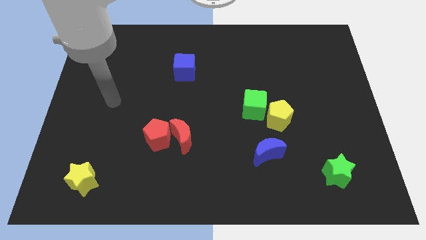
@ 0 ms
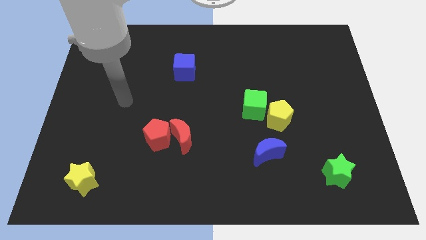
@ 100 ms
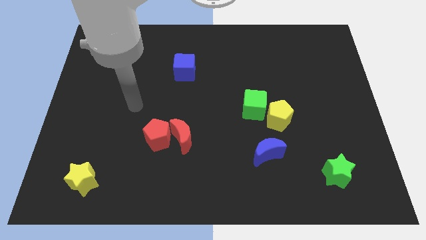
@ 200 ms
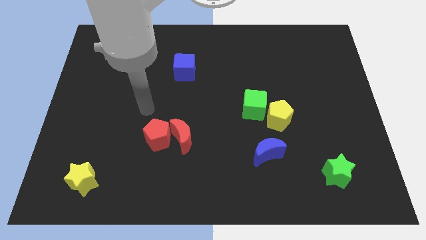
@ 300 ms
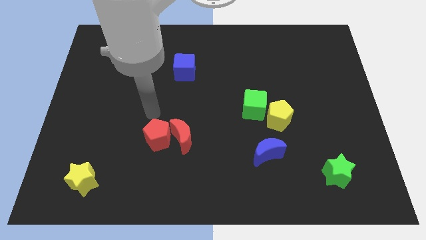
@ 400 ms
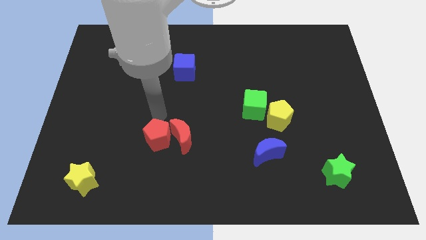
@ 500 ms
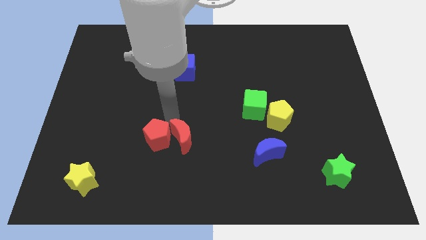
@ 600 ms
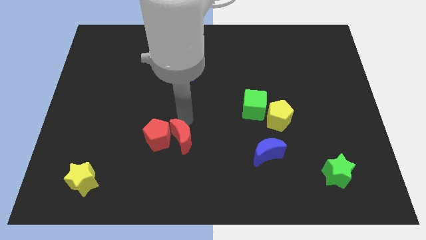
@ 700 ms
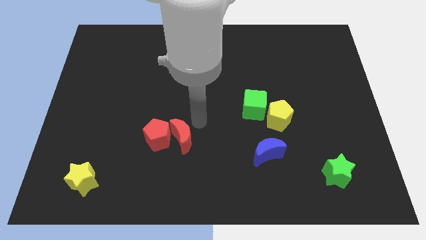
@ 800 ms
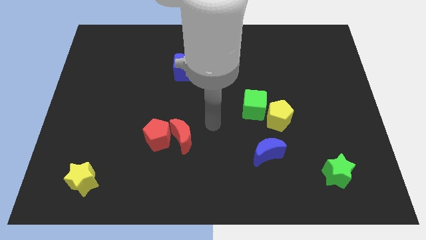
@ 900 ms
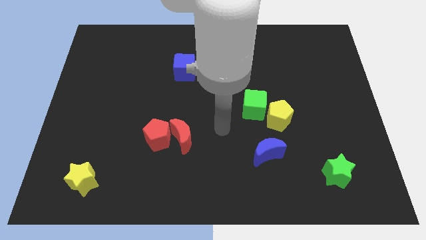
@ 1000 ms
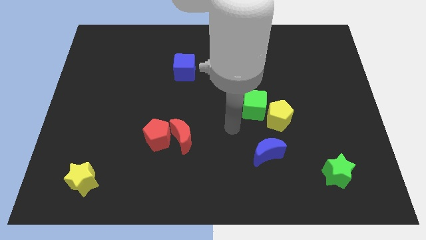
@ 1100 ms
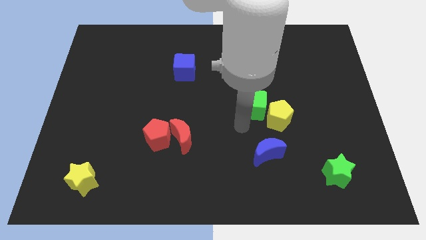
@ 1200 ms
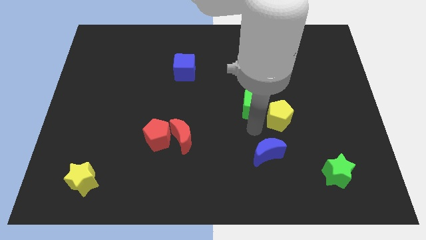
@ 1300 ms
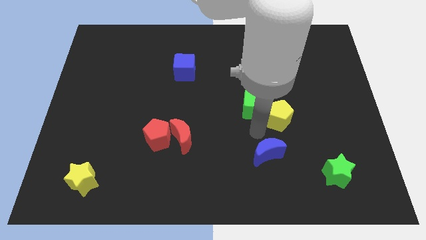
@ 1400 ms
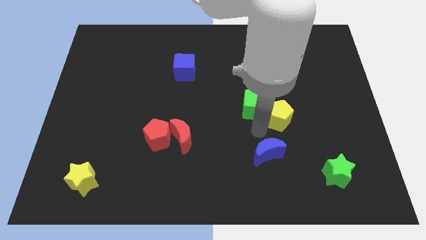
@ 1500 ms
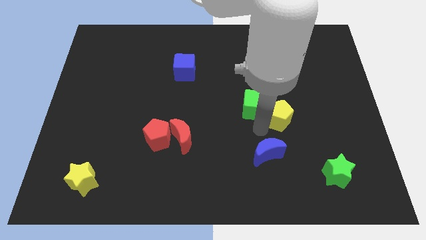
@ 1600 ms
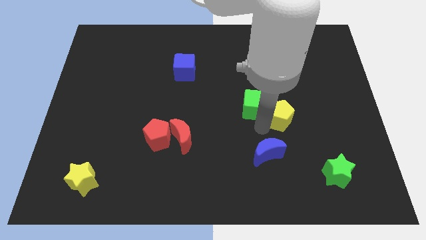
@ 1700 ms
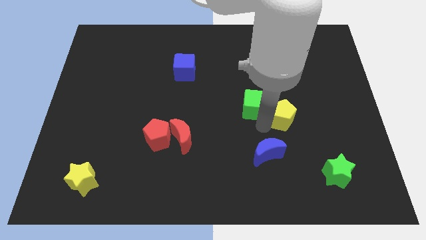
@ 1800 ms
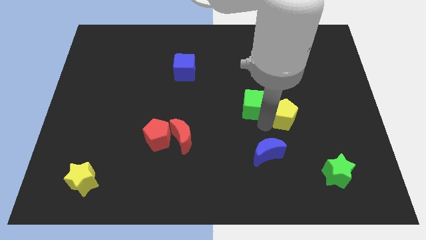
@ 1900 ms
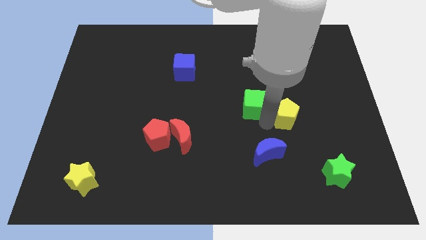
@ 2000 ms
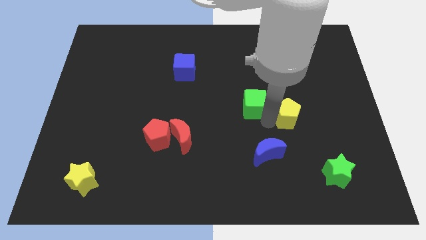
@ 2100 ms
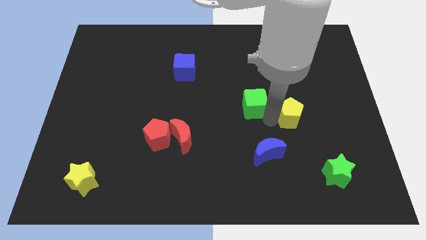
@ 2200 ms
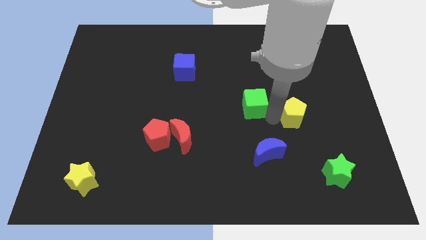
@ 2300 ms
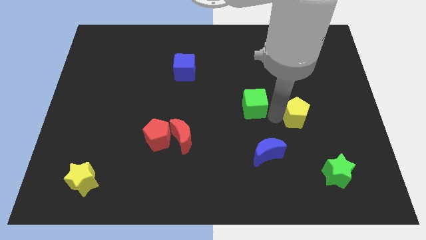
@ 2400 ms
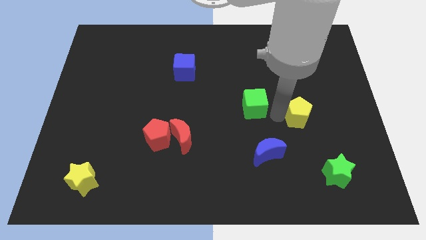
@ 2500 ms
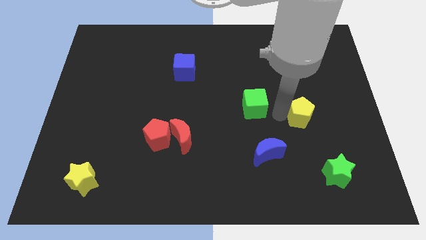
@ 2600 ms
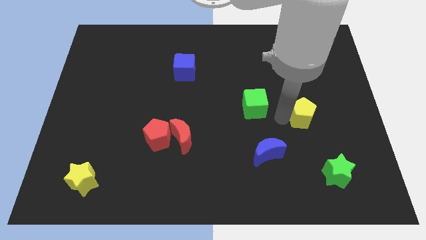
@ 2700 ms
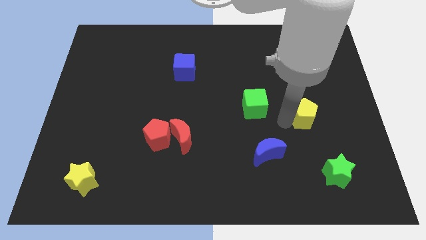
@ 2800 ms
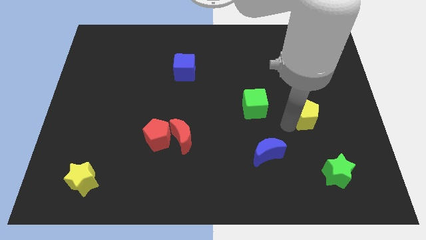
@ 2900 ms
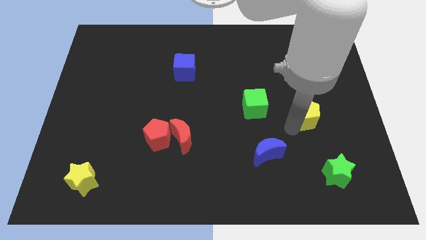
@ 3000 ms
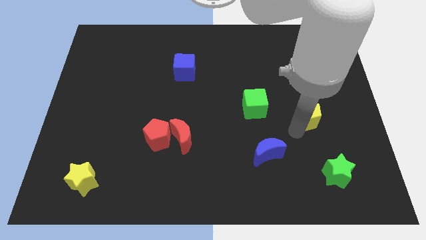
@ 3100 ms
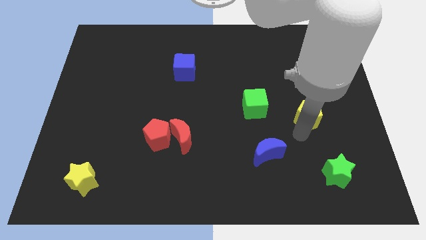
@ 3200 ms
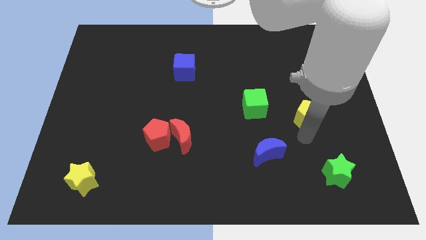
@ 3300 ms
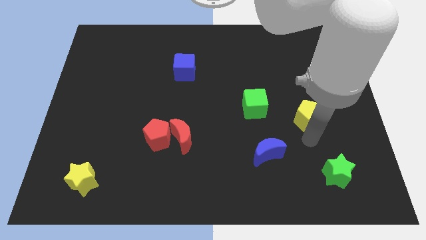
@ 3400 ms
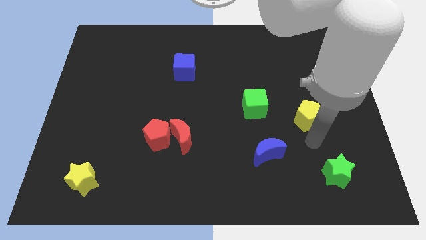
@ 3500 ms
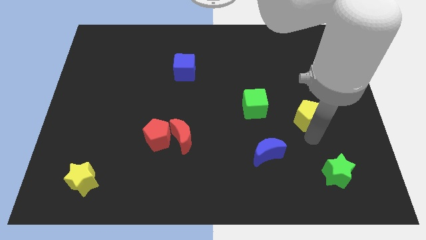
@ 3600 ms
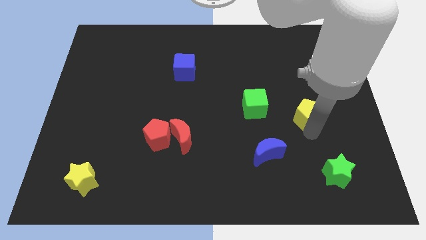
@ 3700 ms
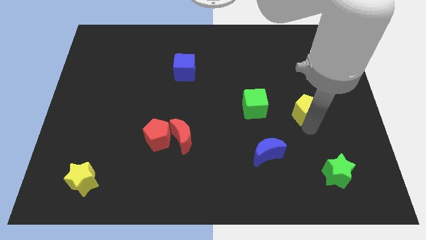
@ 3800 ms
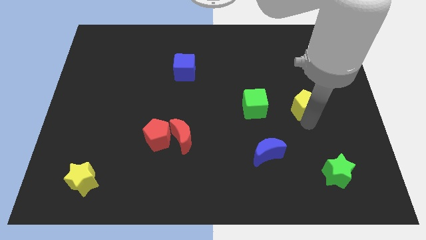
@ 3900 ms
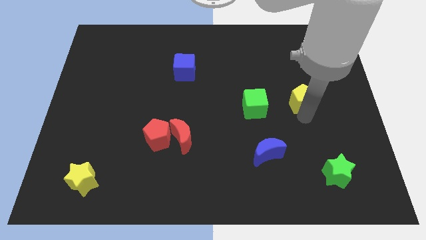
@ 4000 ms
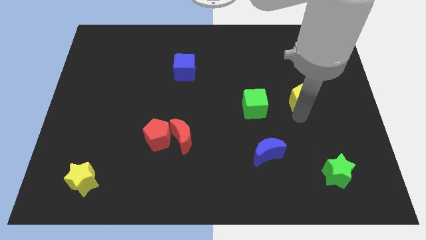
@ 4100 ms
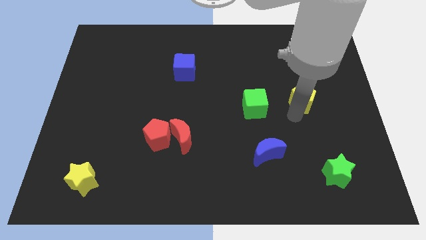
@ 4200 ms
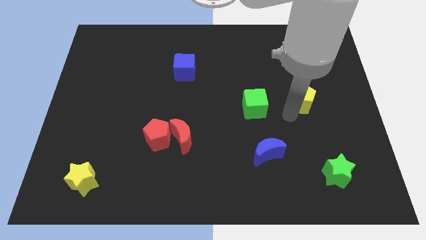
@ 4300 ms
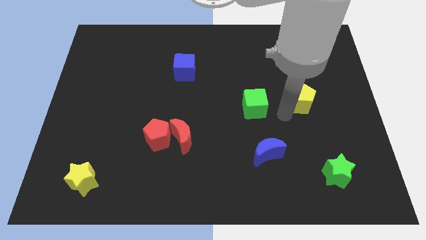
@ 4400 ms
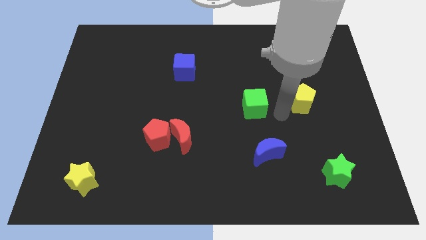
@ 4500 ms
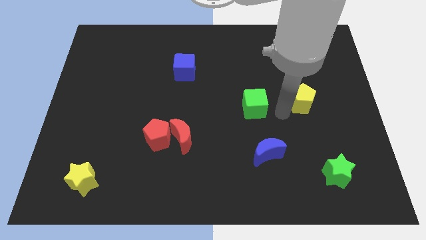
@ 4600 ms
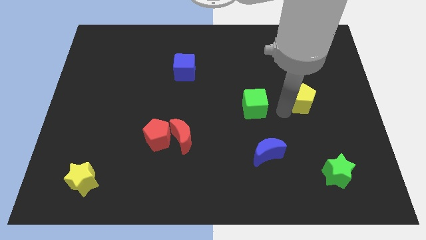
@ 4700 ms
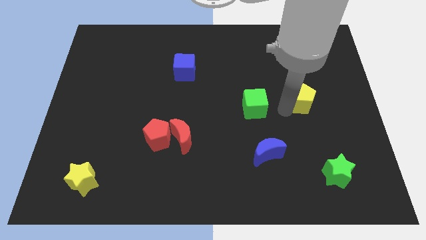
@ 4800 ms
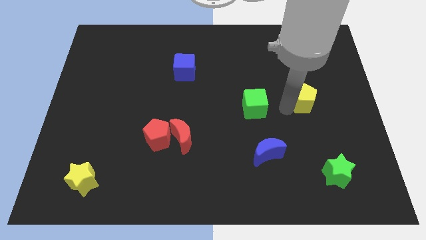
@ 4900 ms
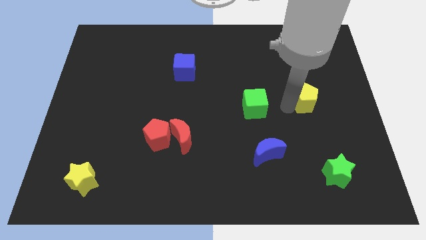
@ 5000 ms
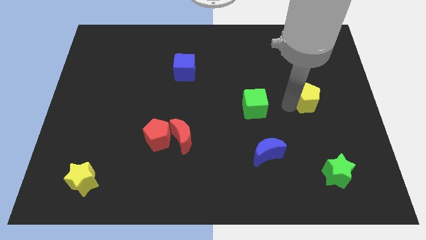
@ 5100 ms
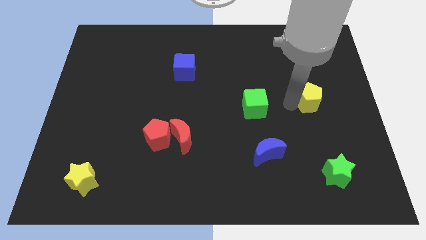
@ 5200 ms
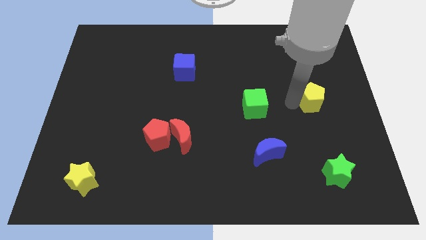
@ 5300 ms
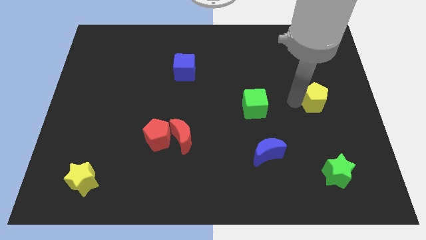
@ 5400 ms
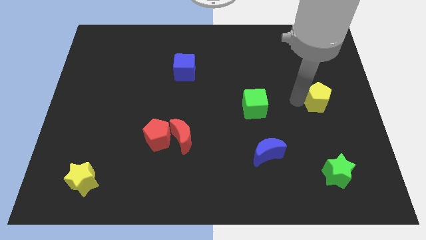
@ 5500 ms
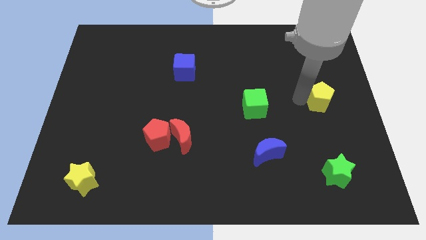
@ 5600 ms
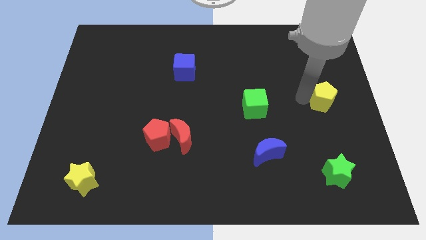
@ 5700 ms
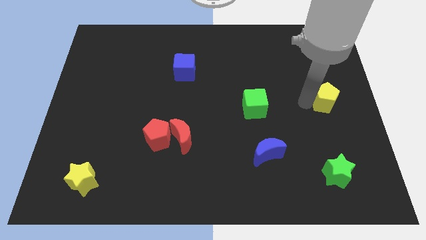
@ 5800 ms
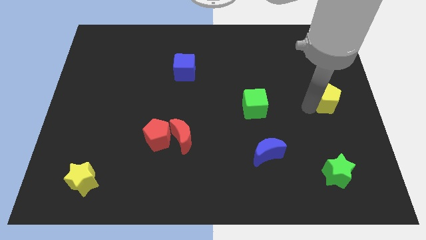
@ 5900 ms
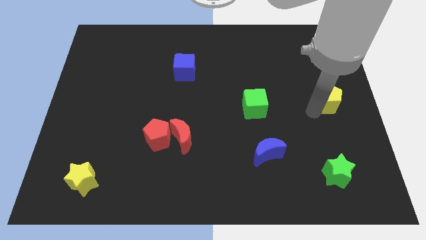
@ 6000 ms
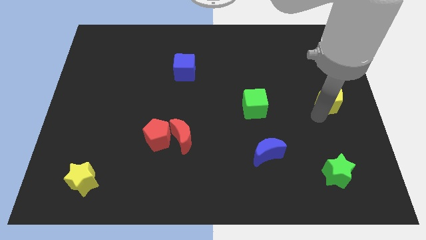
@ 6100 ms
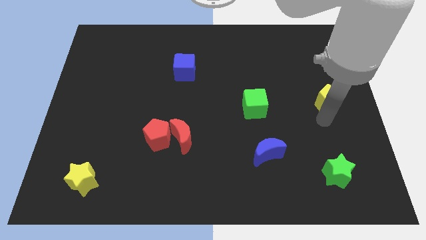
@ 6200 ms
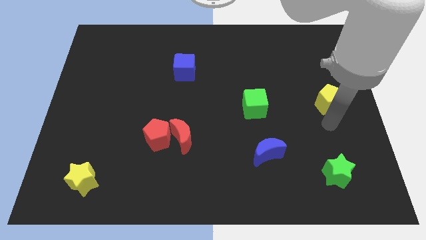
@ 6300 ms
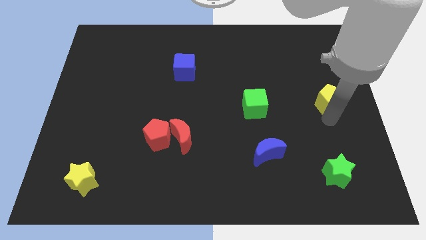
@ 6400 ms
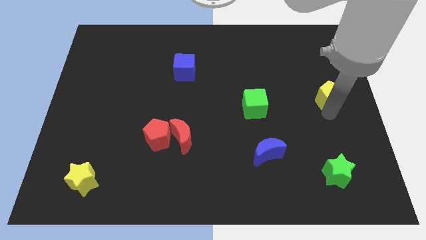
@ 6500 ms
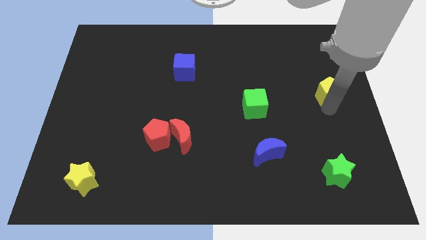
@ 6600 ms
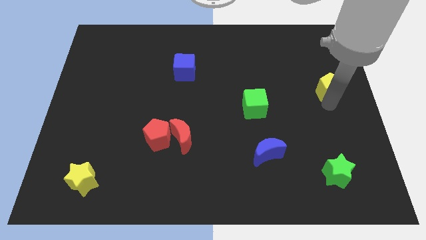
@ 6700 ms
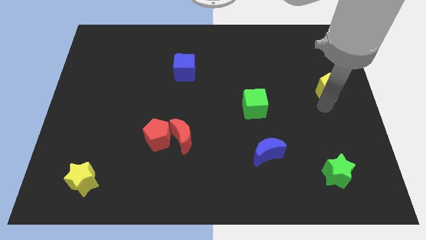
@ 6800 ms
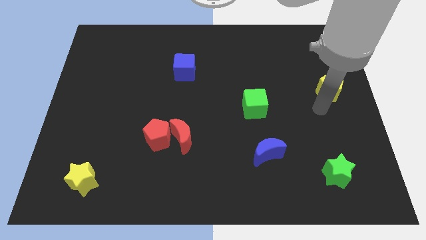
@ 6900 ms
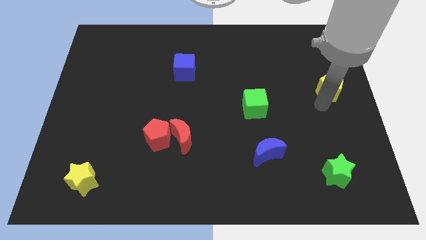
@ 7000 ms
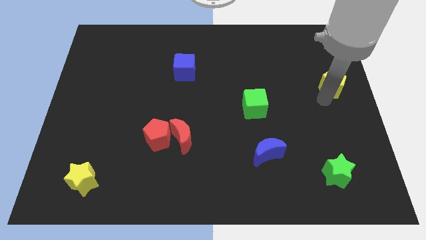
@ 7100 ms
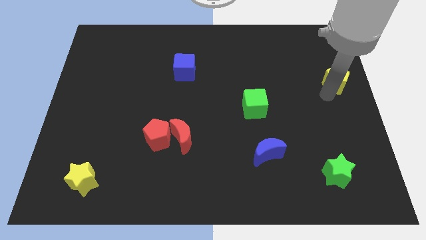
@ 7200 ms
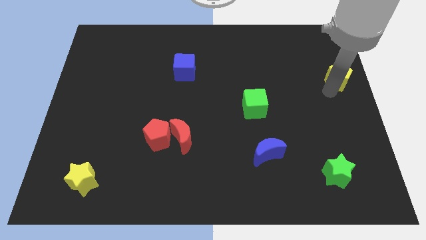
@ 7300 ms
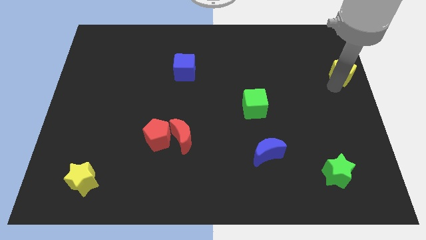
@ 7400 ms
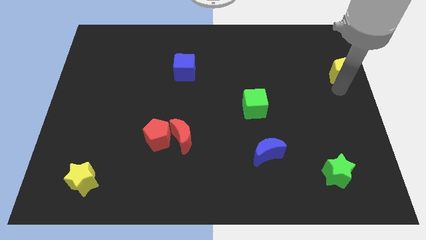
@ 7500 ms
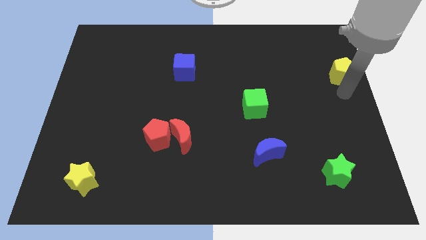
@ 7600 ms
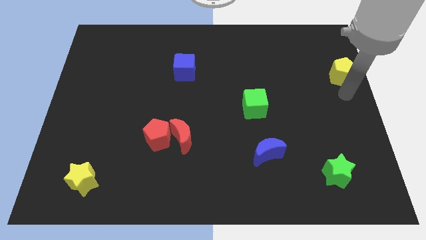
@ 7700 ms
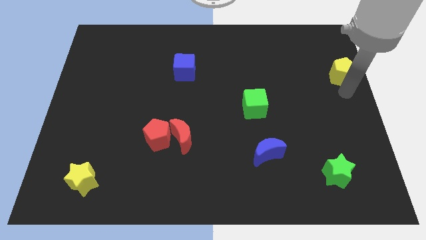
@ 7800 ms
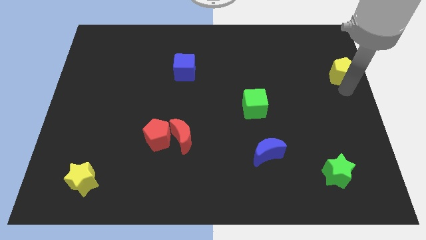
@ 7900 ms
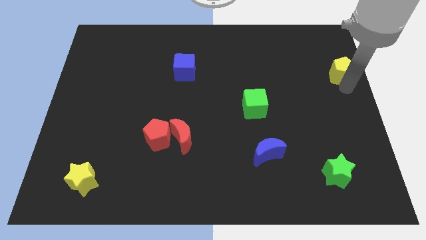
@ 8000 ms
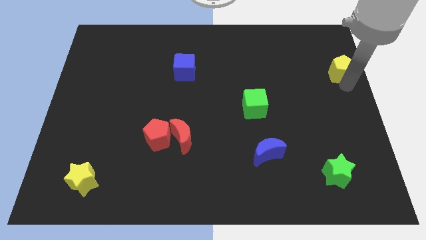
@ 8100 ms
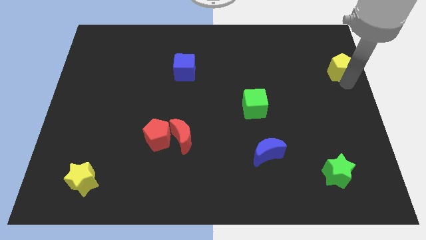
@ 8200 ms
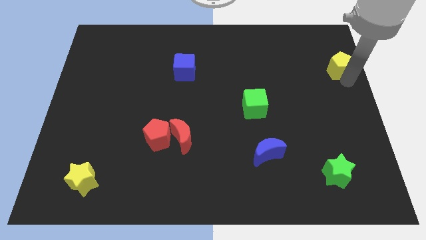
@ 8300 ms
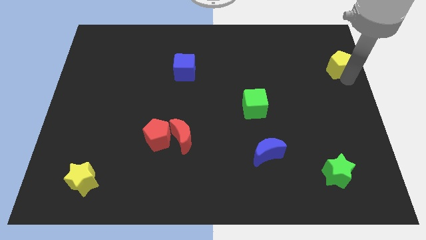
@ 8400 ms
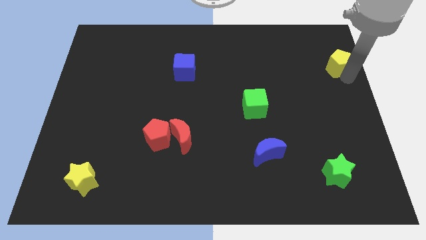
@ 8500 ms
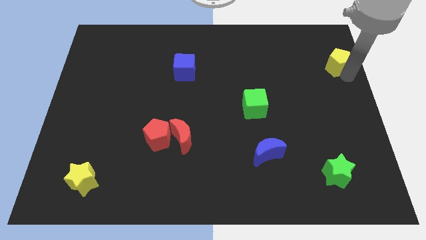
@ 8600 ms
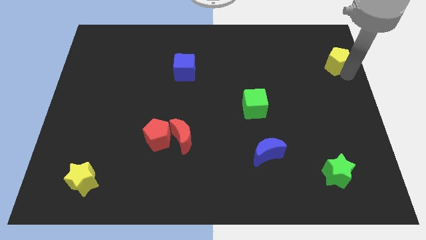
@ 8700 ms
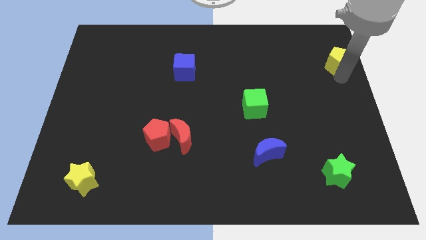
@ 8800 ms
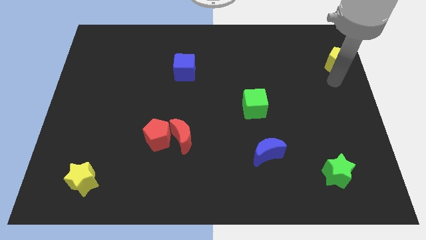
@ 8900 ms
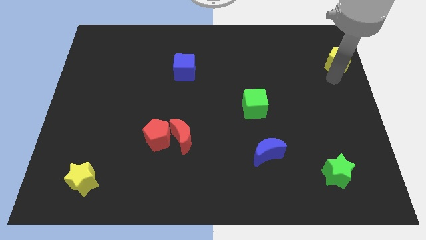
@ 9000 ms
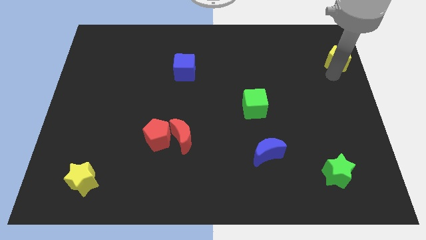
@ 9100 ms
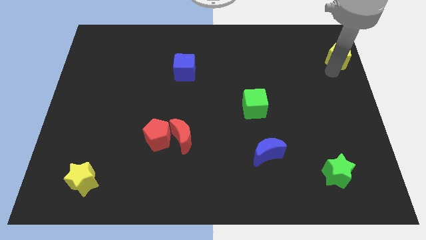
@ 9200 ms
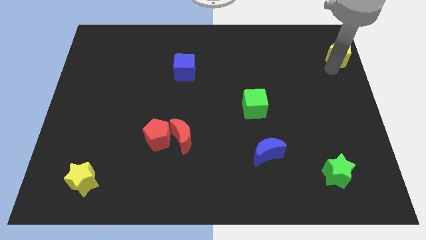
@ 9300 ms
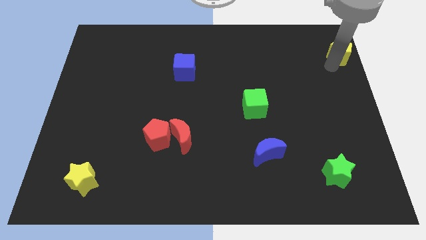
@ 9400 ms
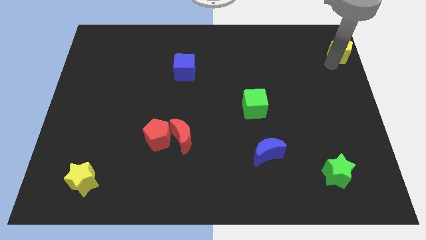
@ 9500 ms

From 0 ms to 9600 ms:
put the yellow pentagon to the top right of the board
